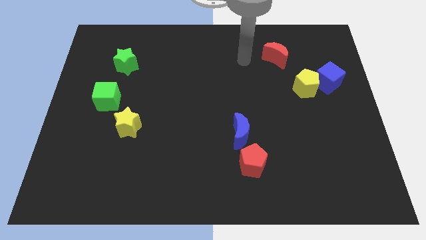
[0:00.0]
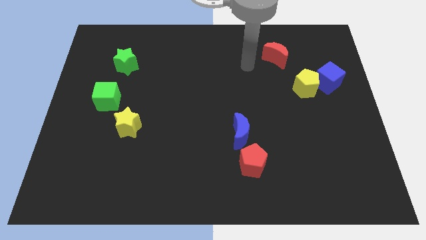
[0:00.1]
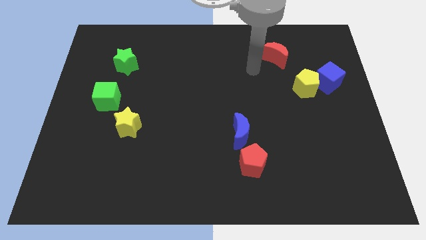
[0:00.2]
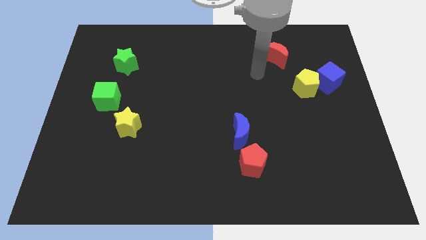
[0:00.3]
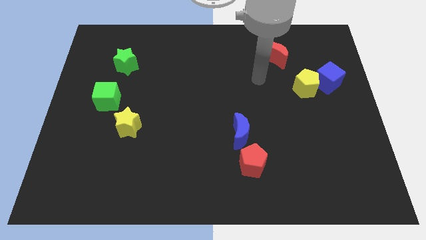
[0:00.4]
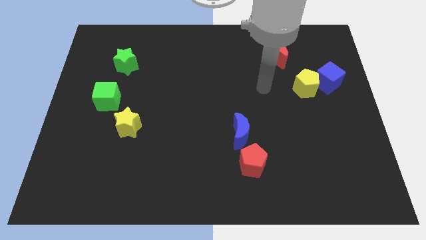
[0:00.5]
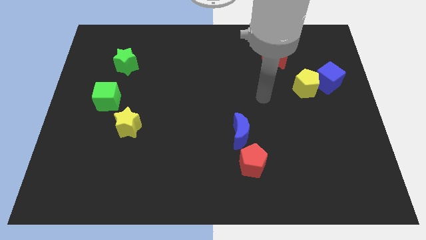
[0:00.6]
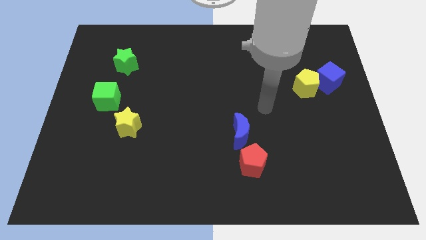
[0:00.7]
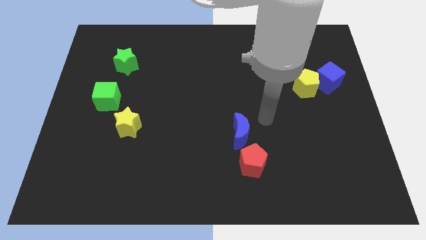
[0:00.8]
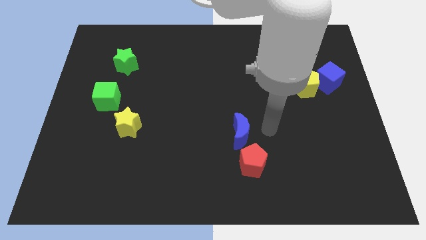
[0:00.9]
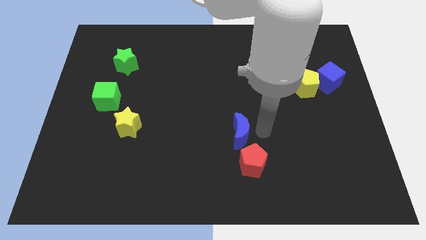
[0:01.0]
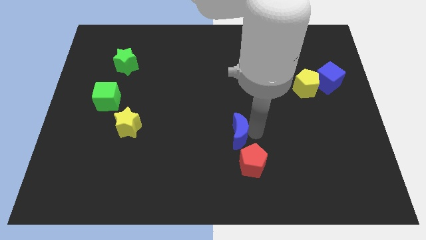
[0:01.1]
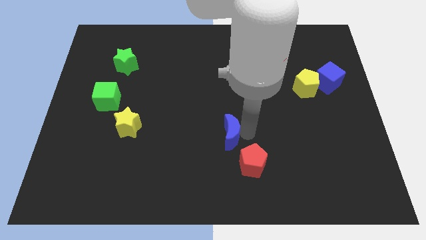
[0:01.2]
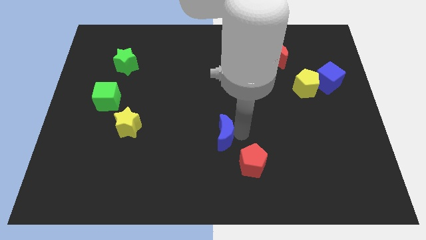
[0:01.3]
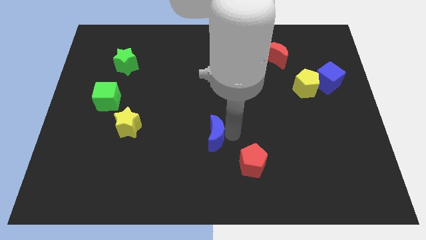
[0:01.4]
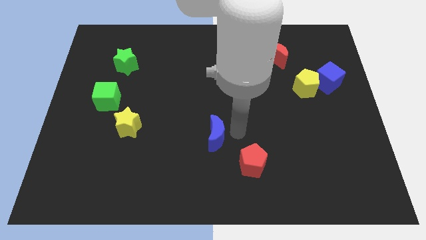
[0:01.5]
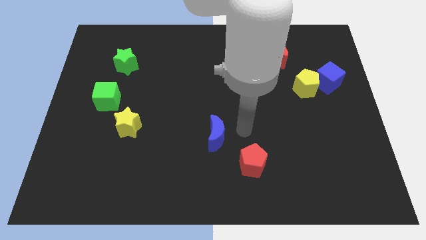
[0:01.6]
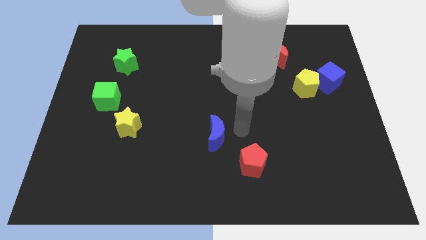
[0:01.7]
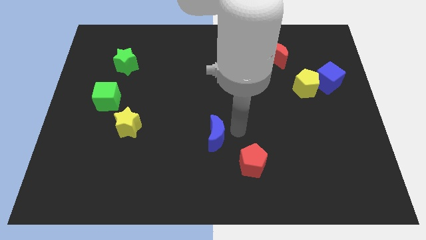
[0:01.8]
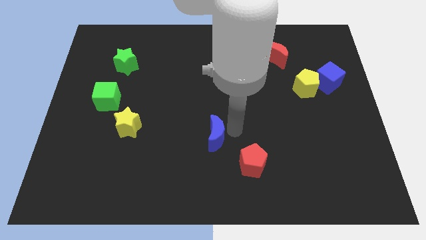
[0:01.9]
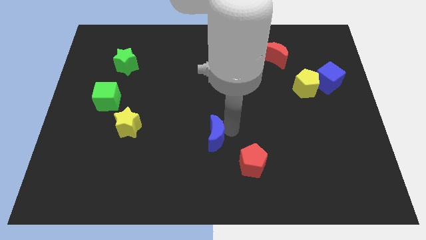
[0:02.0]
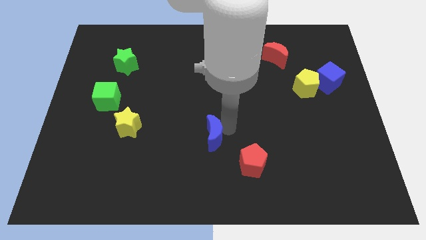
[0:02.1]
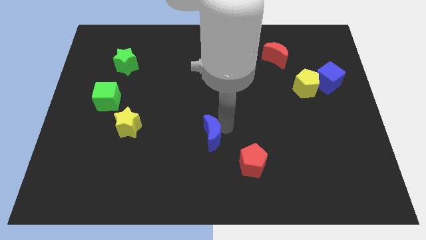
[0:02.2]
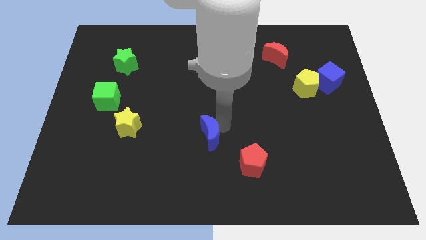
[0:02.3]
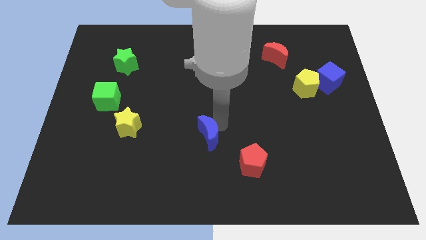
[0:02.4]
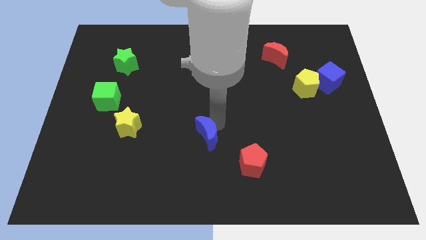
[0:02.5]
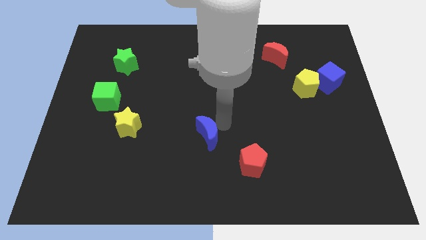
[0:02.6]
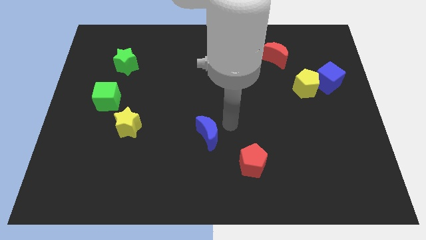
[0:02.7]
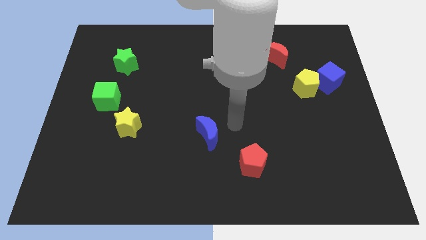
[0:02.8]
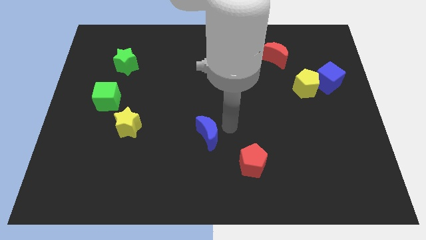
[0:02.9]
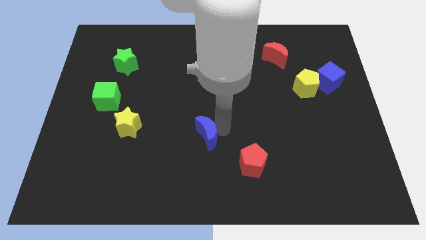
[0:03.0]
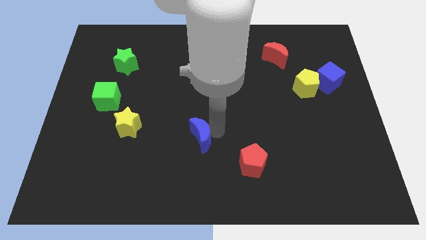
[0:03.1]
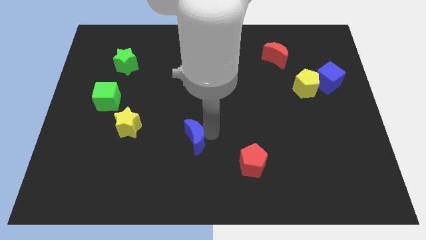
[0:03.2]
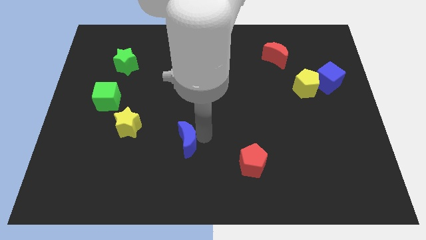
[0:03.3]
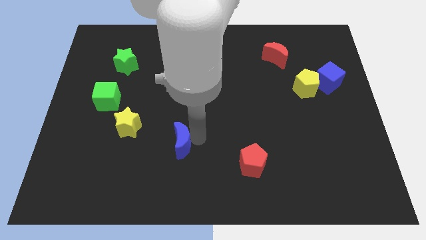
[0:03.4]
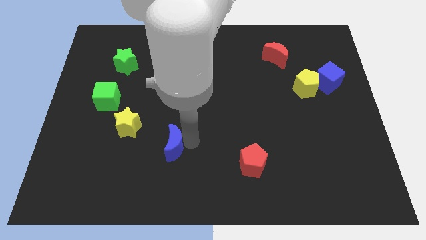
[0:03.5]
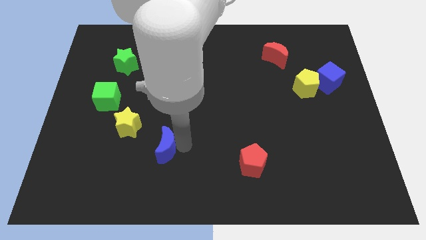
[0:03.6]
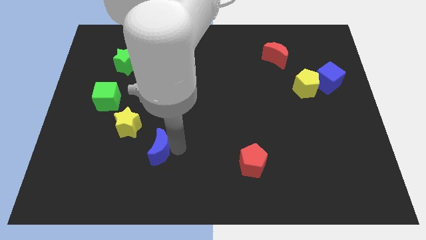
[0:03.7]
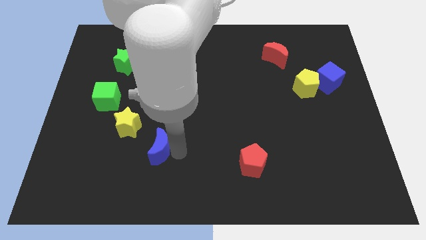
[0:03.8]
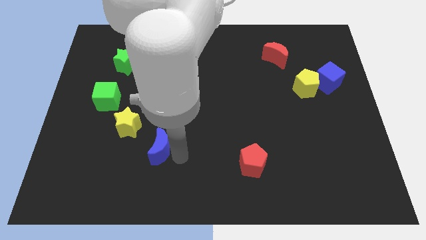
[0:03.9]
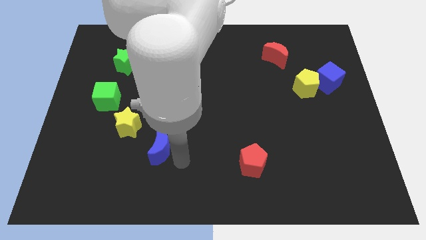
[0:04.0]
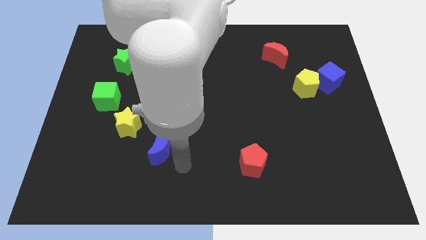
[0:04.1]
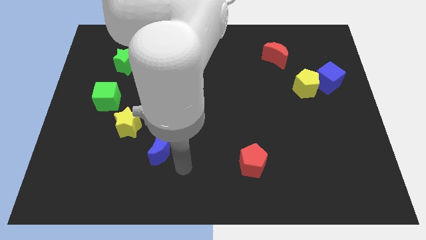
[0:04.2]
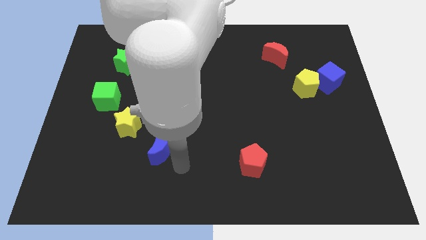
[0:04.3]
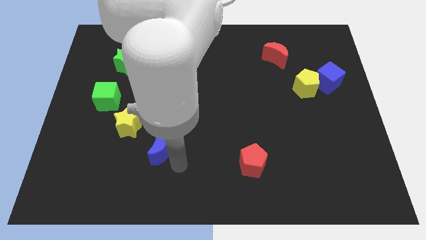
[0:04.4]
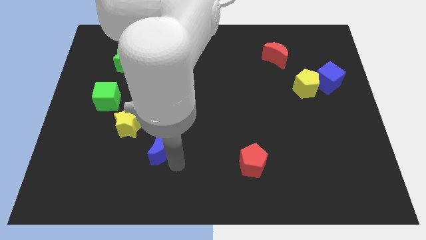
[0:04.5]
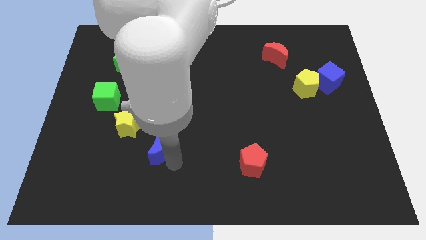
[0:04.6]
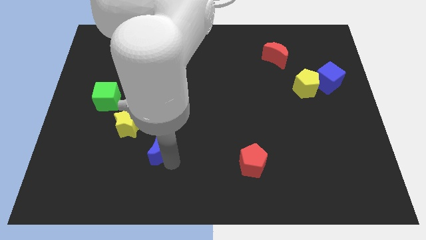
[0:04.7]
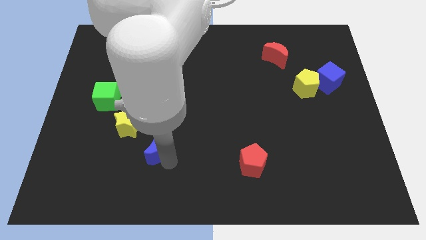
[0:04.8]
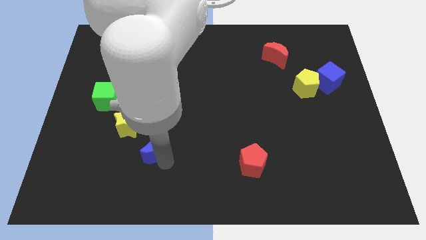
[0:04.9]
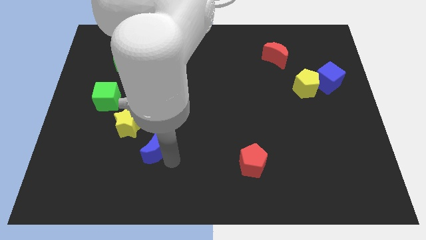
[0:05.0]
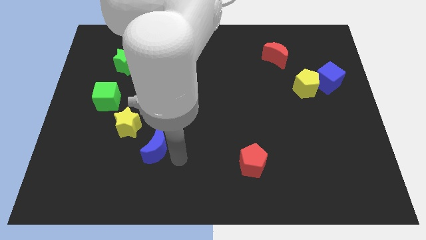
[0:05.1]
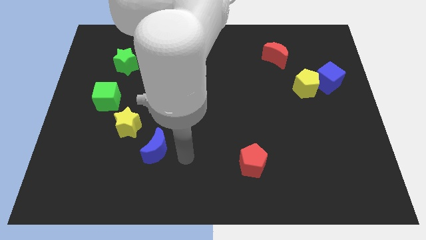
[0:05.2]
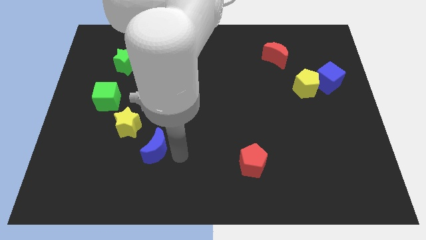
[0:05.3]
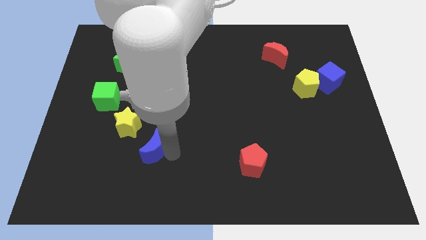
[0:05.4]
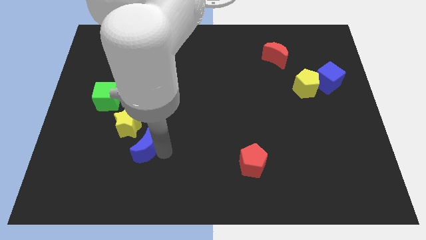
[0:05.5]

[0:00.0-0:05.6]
slide the blue moon left

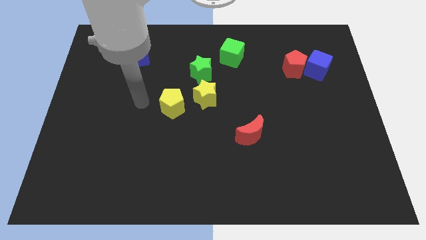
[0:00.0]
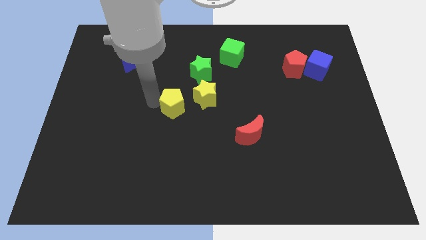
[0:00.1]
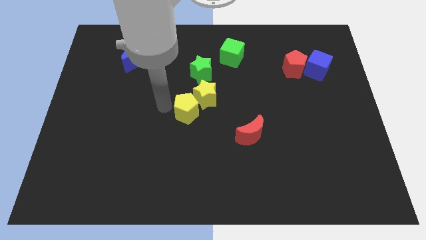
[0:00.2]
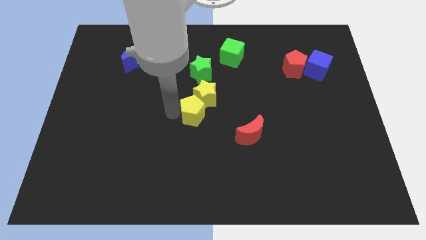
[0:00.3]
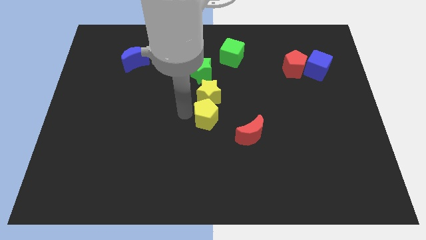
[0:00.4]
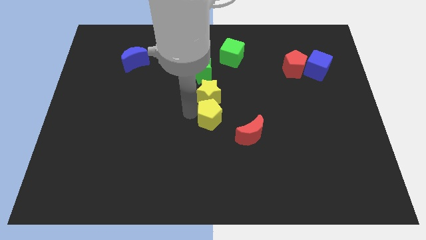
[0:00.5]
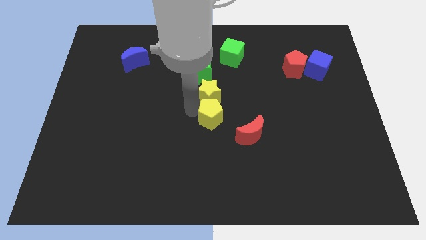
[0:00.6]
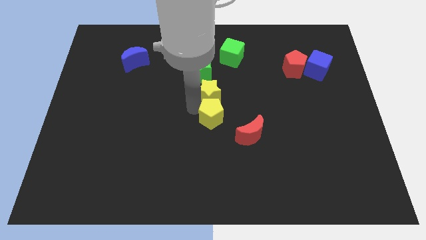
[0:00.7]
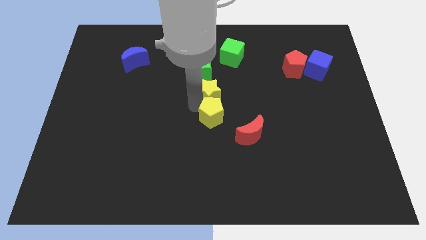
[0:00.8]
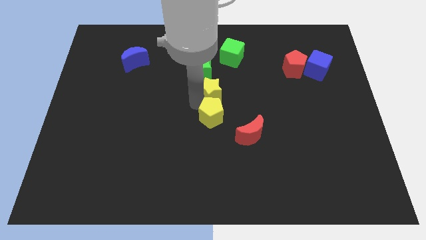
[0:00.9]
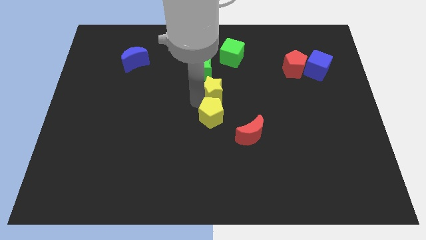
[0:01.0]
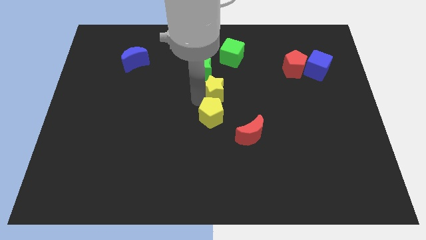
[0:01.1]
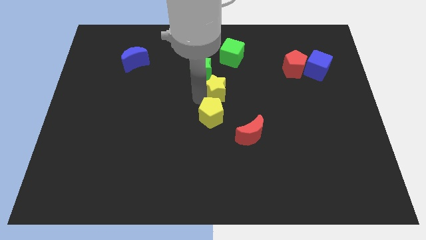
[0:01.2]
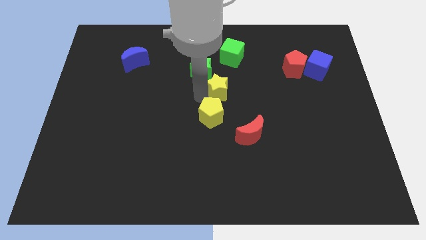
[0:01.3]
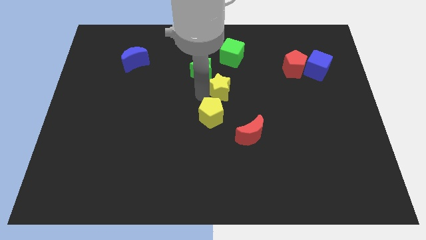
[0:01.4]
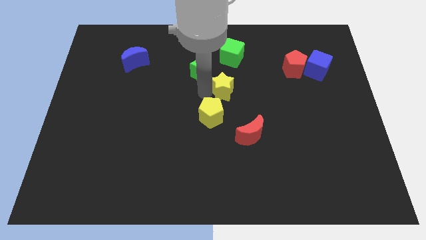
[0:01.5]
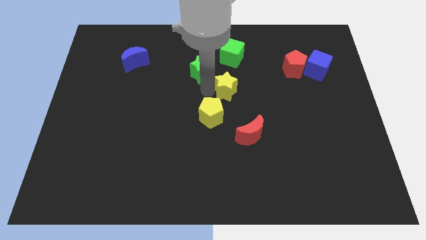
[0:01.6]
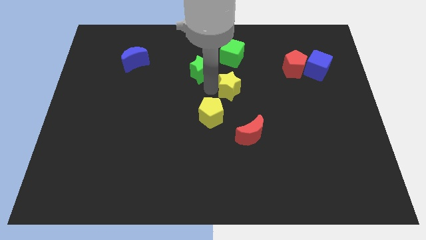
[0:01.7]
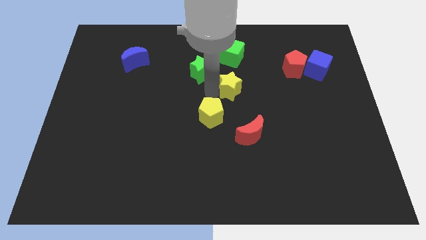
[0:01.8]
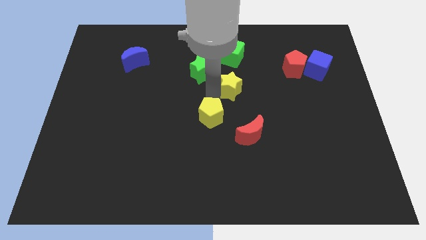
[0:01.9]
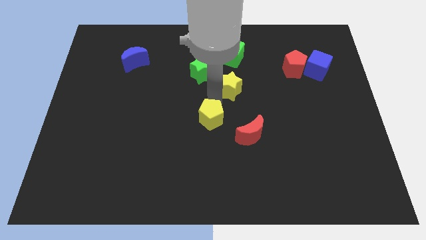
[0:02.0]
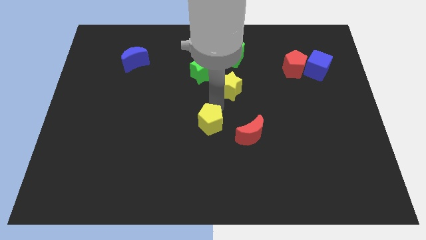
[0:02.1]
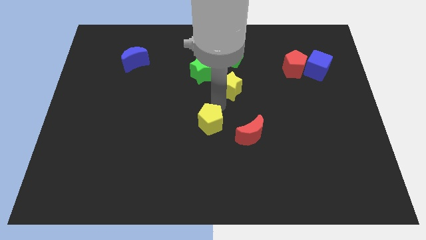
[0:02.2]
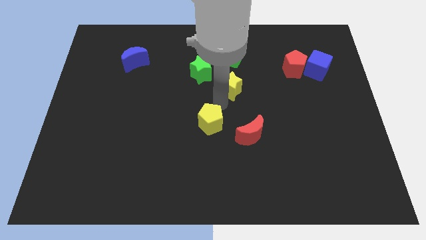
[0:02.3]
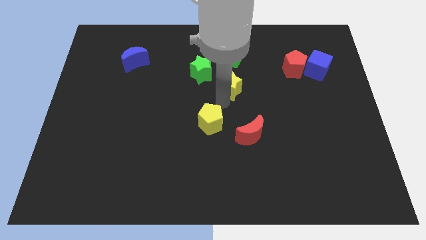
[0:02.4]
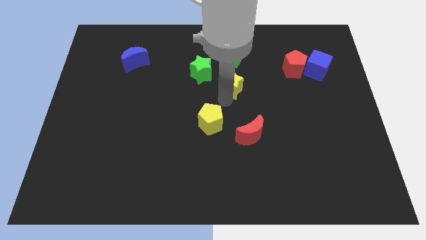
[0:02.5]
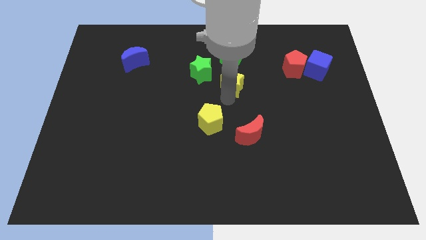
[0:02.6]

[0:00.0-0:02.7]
slide the yellow star up and right a little bit
